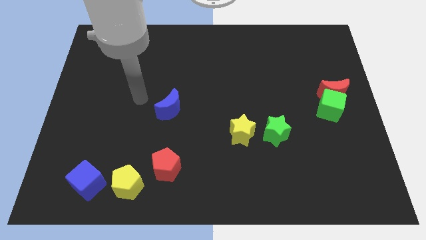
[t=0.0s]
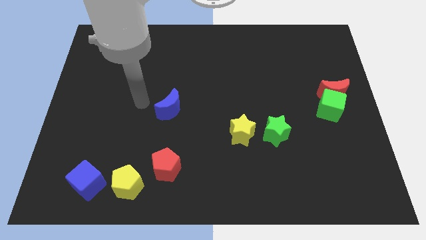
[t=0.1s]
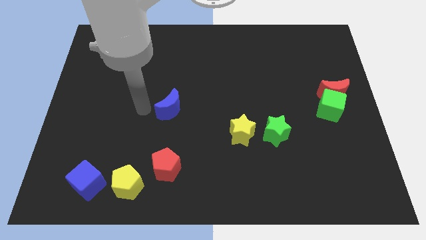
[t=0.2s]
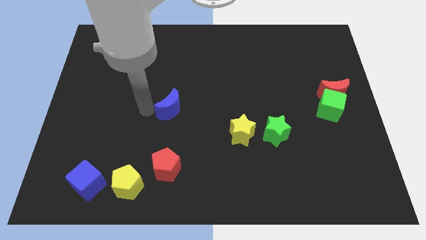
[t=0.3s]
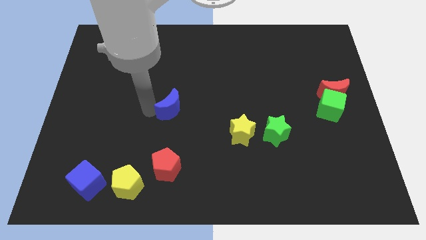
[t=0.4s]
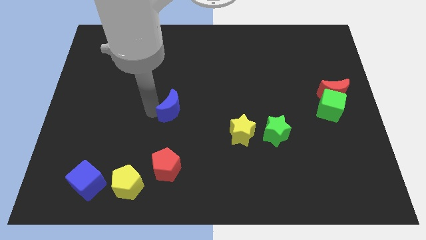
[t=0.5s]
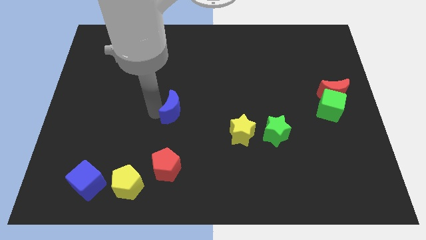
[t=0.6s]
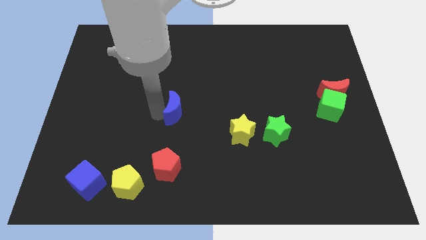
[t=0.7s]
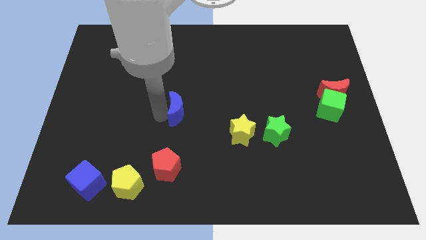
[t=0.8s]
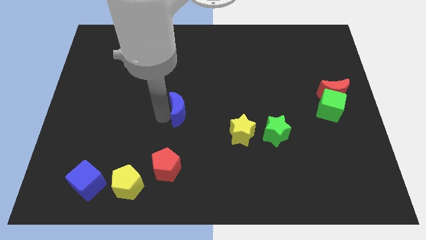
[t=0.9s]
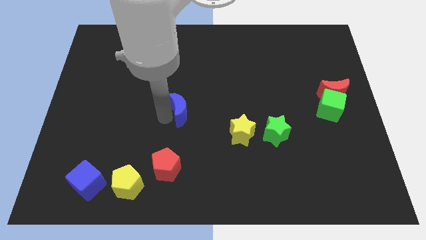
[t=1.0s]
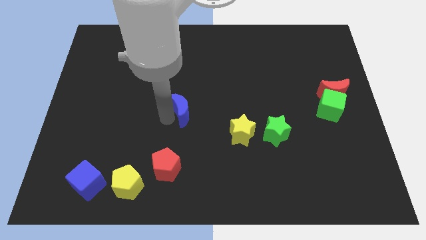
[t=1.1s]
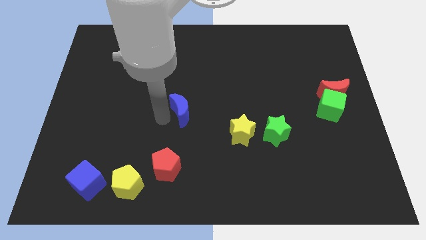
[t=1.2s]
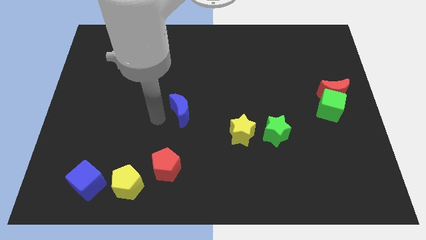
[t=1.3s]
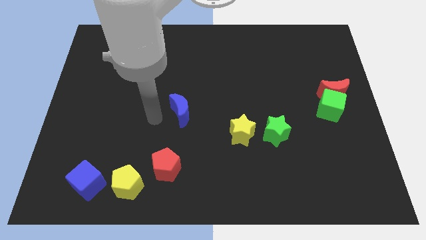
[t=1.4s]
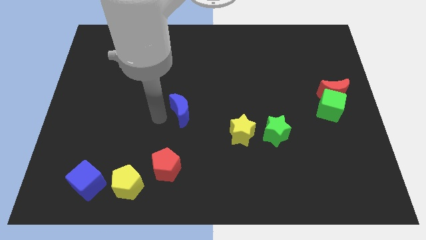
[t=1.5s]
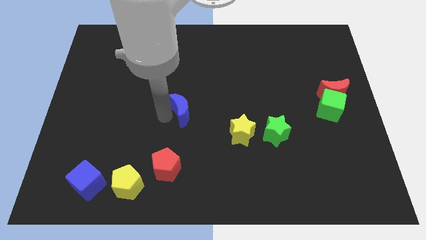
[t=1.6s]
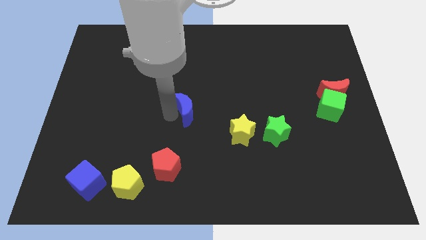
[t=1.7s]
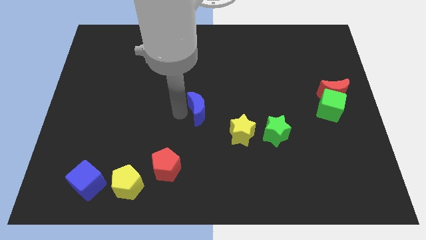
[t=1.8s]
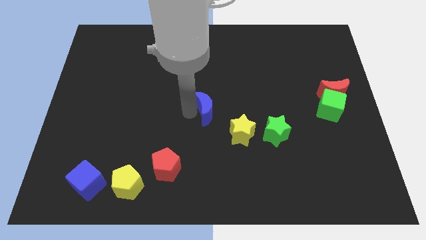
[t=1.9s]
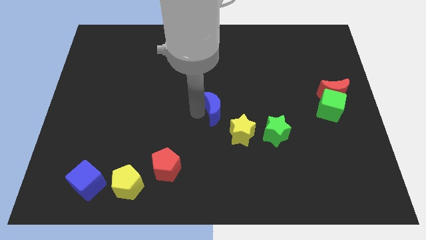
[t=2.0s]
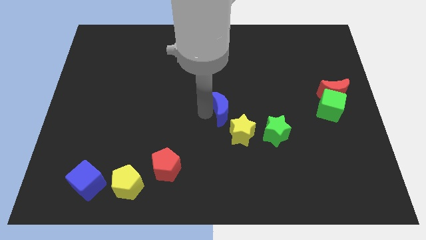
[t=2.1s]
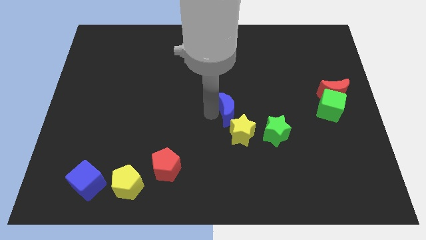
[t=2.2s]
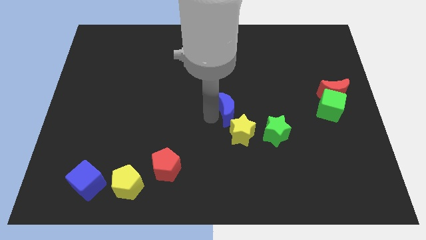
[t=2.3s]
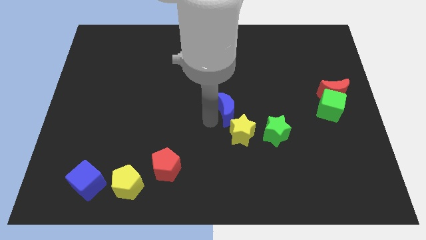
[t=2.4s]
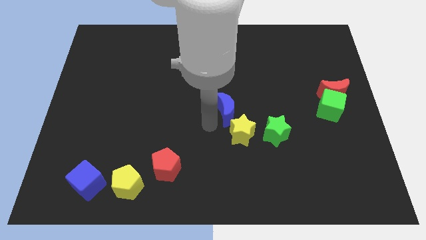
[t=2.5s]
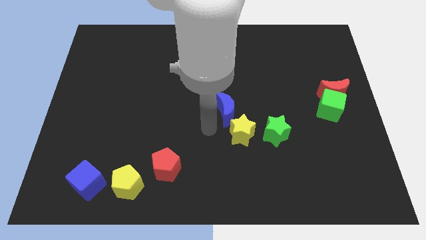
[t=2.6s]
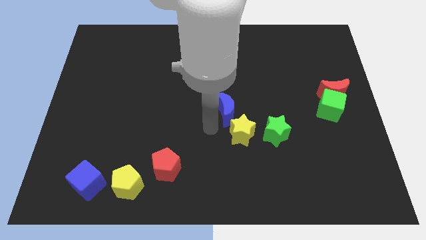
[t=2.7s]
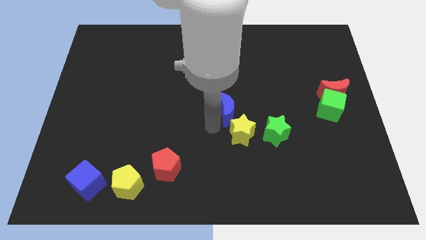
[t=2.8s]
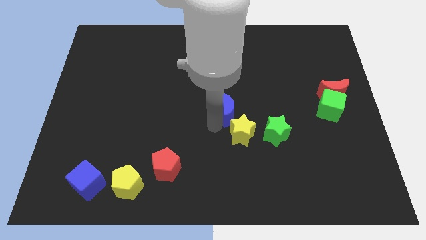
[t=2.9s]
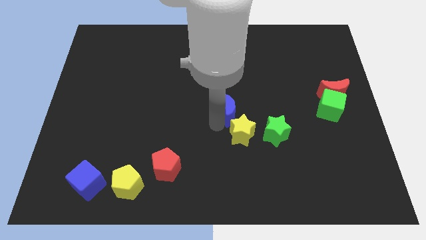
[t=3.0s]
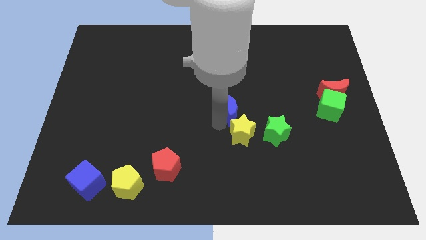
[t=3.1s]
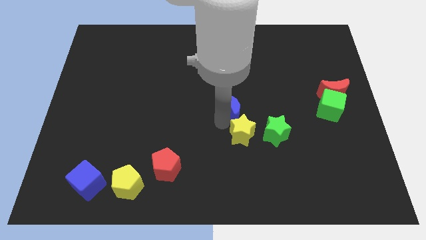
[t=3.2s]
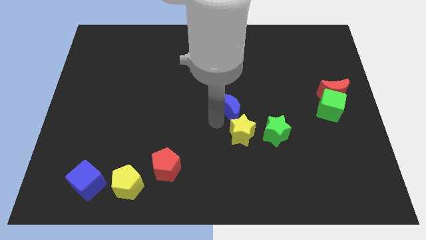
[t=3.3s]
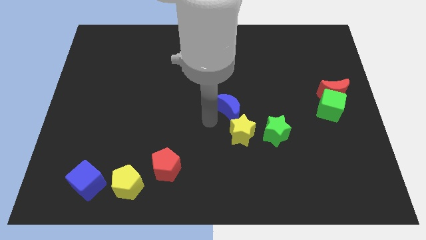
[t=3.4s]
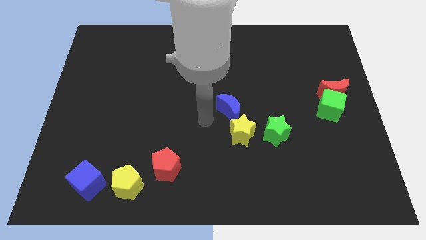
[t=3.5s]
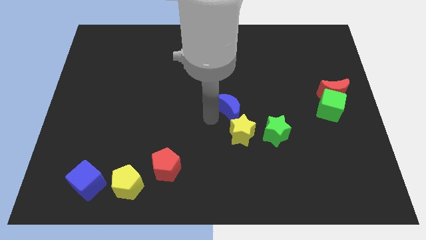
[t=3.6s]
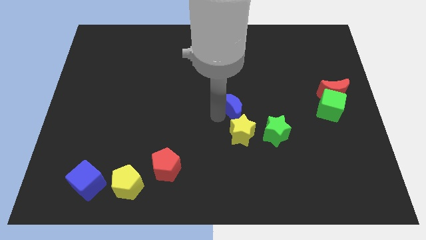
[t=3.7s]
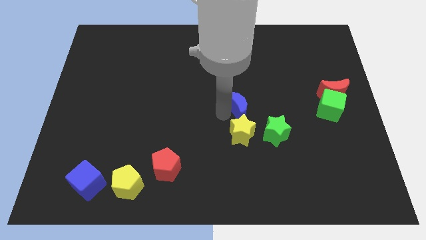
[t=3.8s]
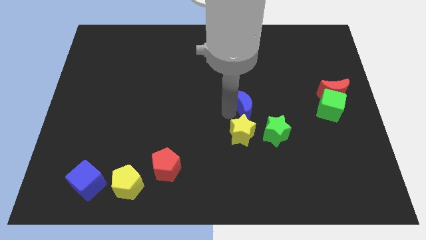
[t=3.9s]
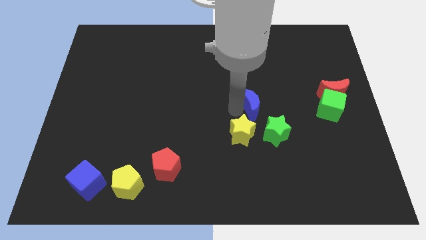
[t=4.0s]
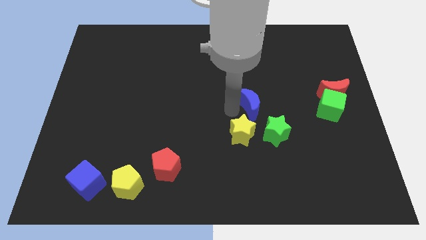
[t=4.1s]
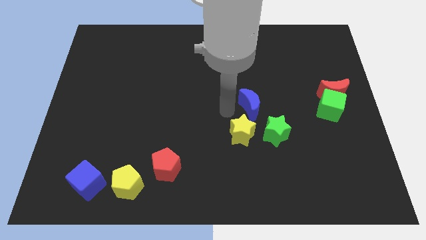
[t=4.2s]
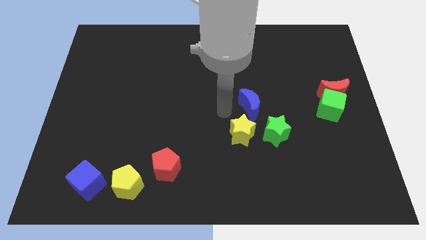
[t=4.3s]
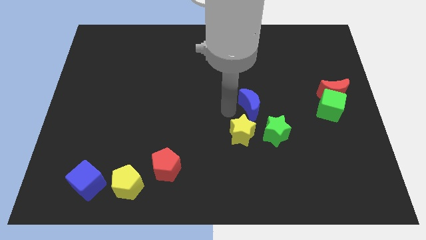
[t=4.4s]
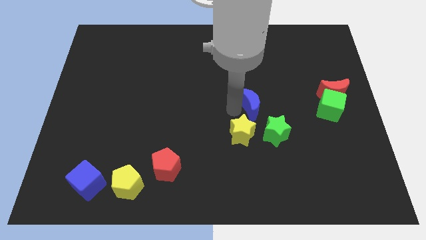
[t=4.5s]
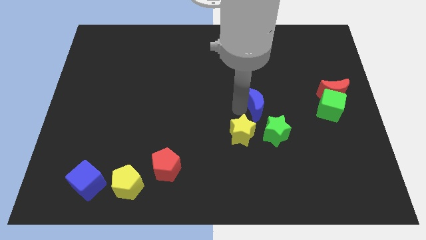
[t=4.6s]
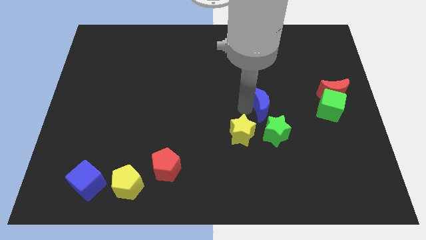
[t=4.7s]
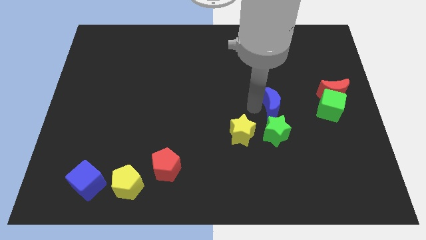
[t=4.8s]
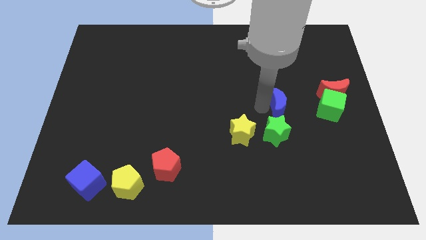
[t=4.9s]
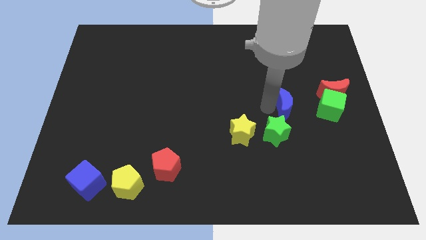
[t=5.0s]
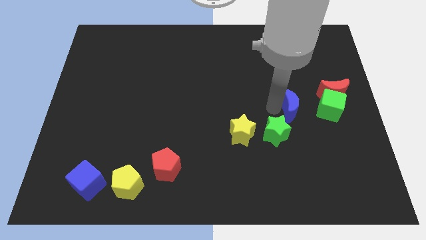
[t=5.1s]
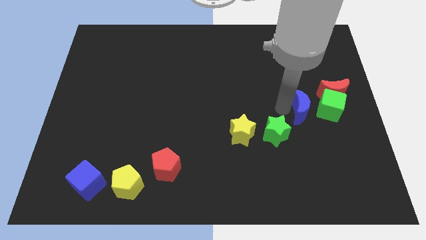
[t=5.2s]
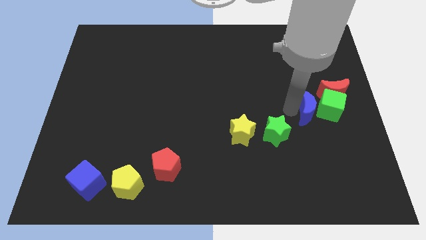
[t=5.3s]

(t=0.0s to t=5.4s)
slide the blue moon close to the green cube

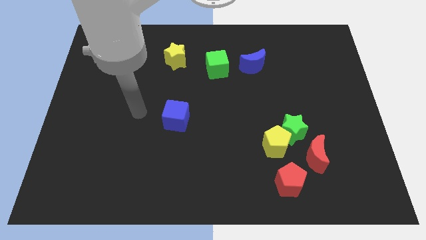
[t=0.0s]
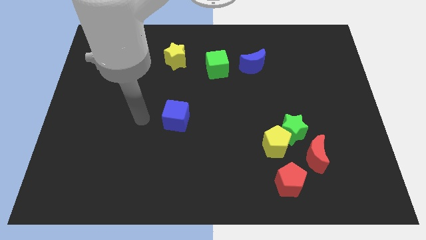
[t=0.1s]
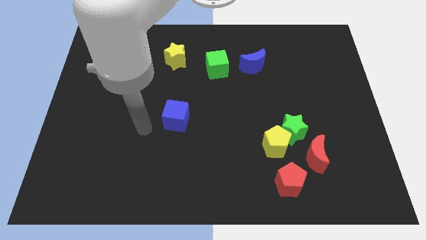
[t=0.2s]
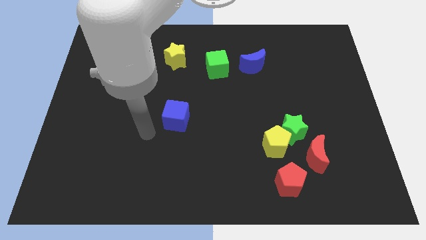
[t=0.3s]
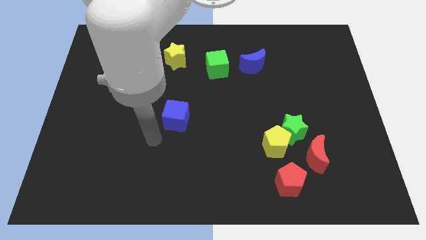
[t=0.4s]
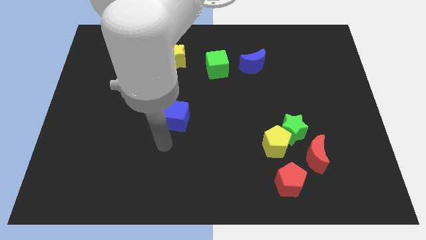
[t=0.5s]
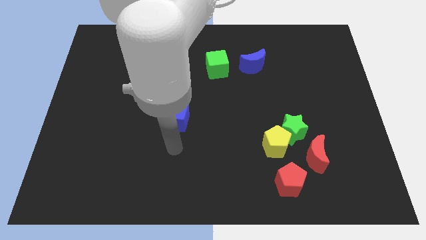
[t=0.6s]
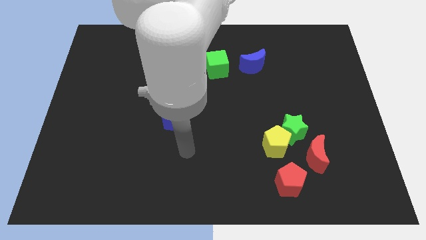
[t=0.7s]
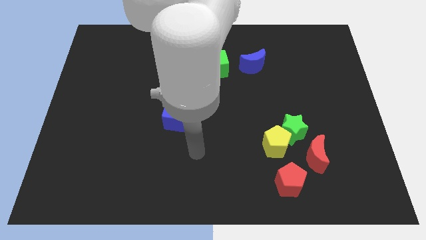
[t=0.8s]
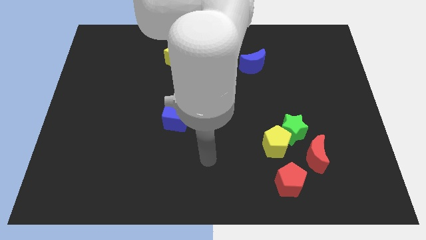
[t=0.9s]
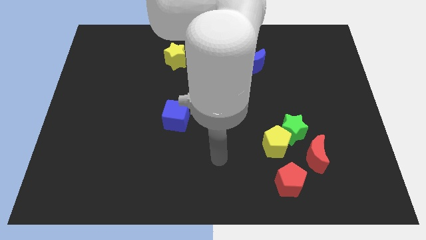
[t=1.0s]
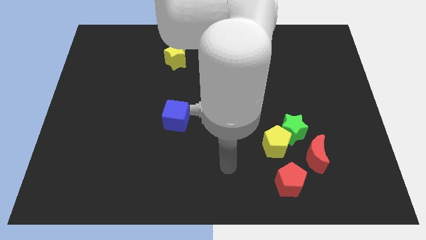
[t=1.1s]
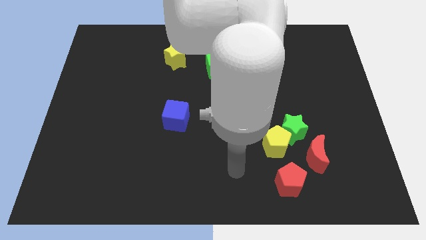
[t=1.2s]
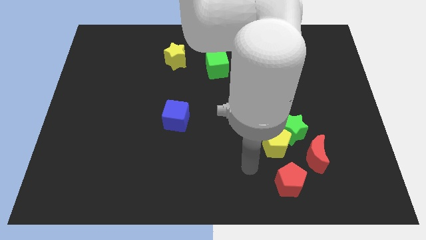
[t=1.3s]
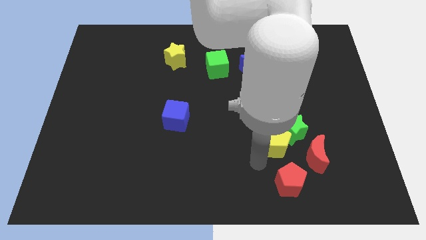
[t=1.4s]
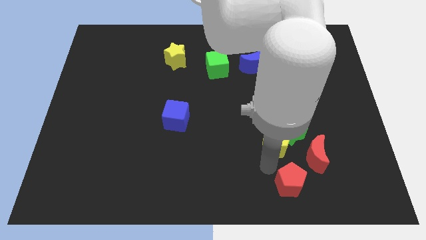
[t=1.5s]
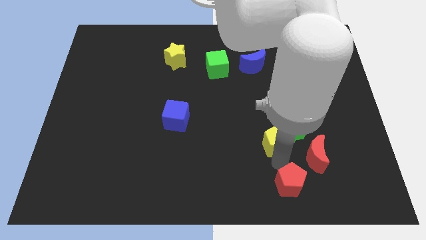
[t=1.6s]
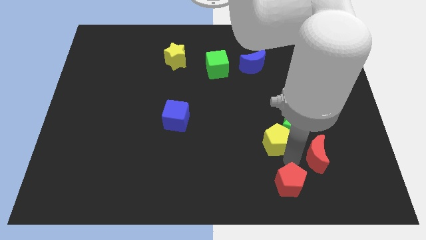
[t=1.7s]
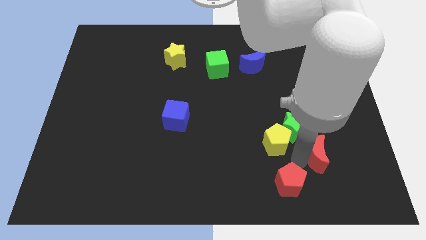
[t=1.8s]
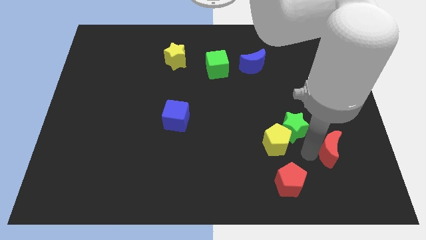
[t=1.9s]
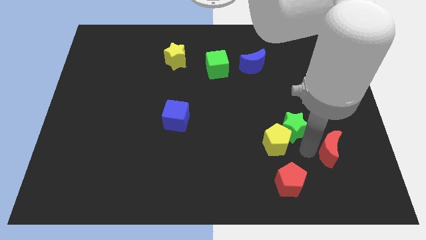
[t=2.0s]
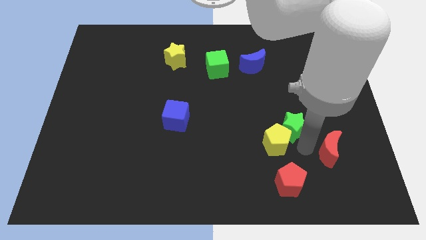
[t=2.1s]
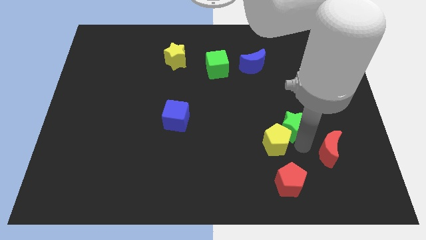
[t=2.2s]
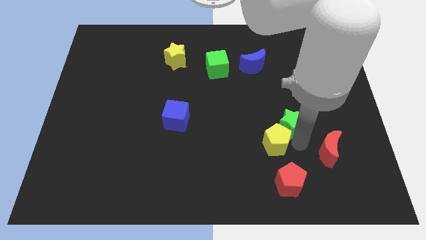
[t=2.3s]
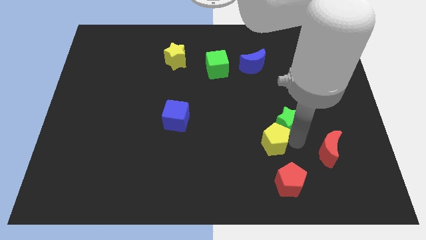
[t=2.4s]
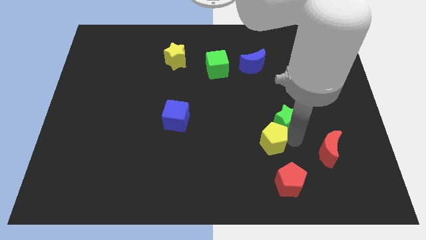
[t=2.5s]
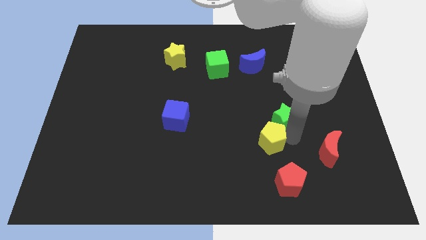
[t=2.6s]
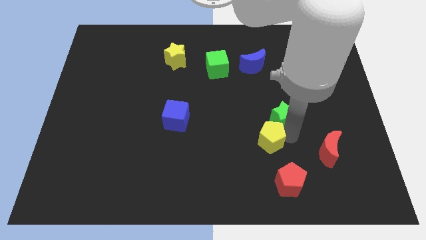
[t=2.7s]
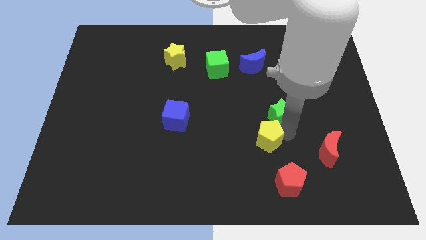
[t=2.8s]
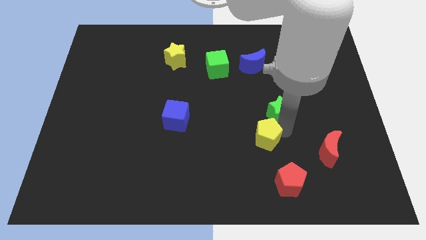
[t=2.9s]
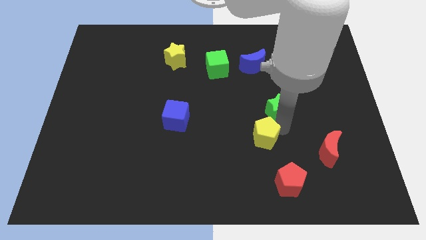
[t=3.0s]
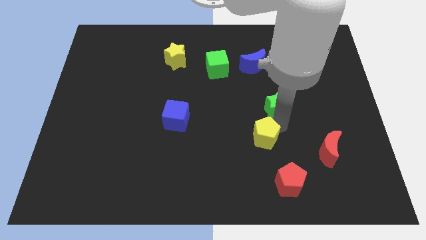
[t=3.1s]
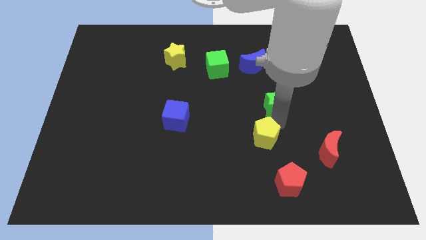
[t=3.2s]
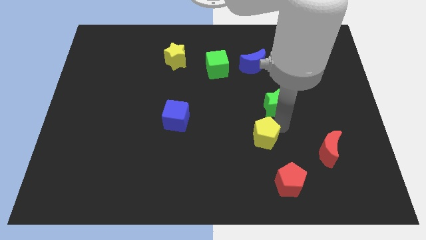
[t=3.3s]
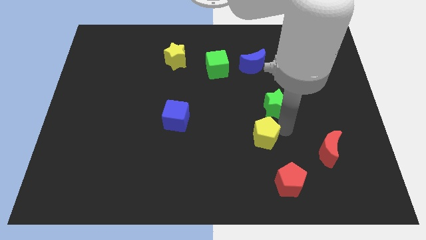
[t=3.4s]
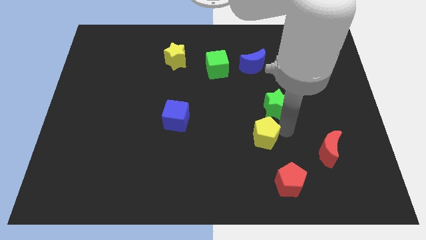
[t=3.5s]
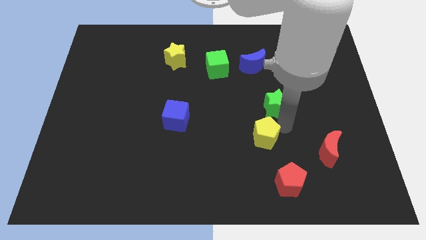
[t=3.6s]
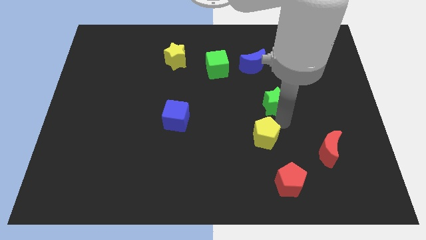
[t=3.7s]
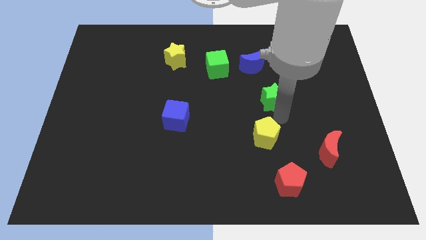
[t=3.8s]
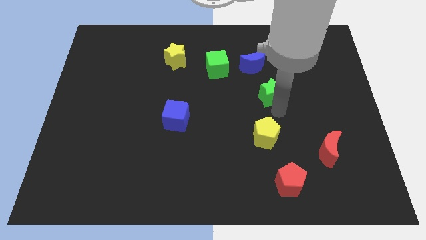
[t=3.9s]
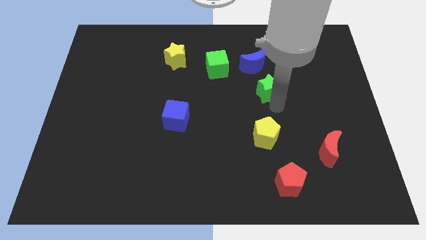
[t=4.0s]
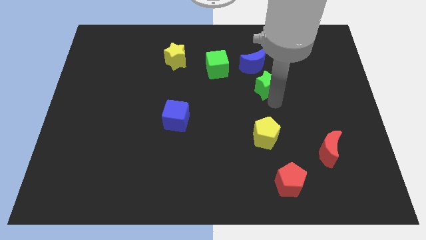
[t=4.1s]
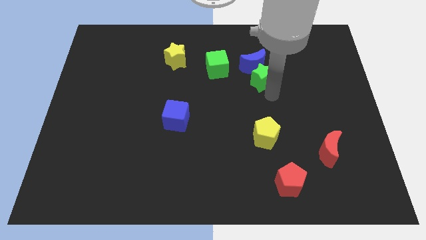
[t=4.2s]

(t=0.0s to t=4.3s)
push the green star towards the blue moon
